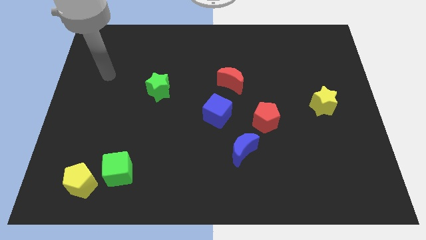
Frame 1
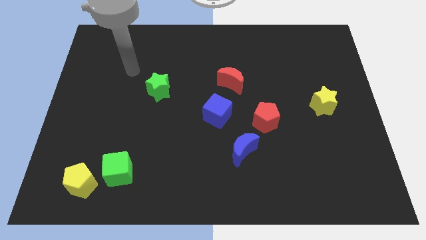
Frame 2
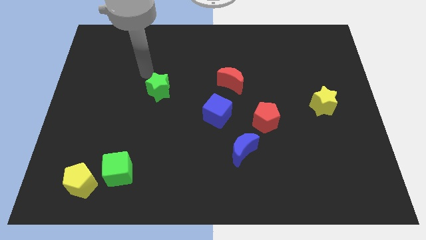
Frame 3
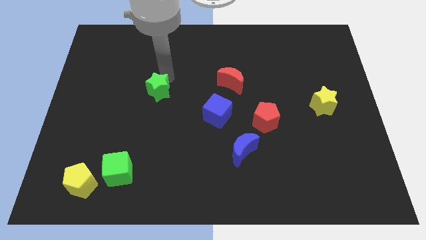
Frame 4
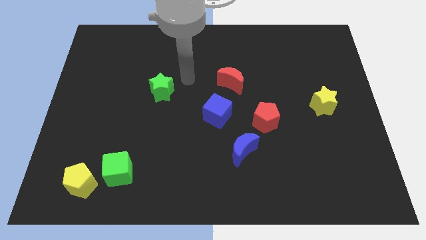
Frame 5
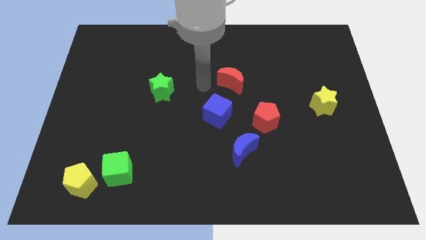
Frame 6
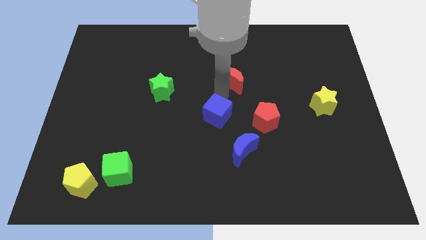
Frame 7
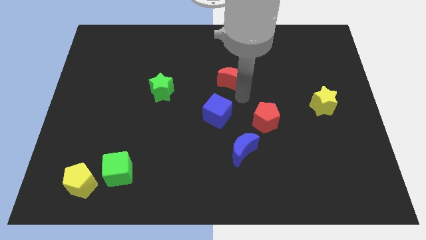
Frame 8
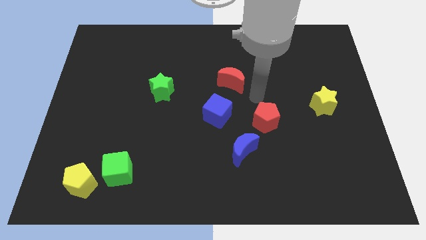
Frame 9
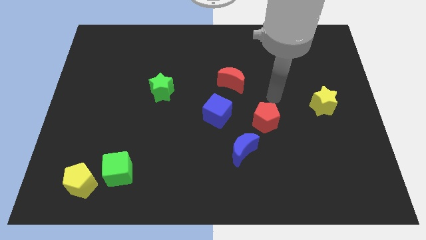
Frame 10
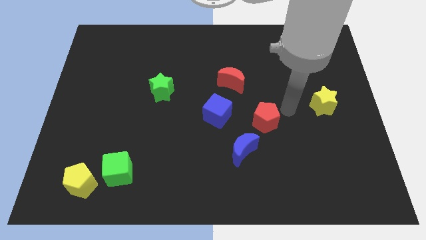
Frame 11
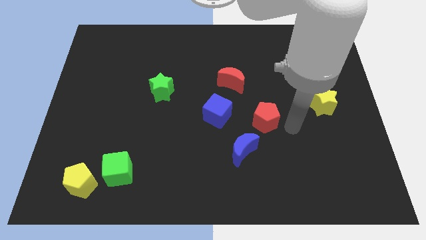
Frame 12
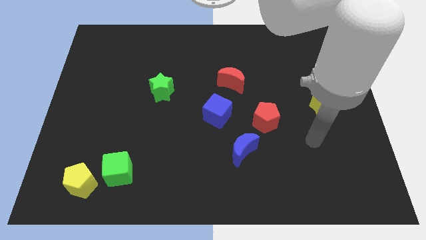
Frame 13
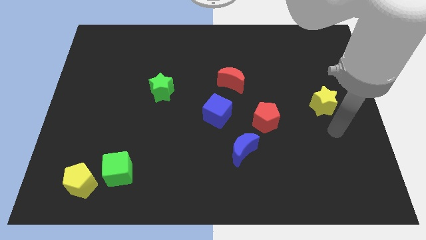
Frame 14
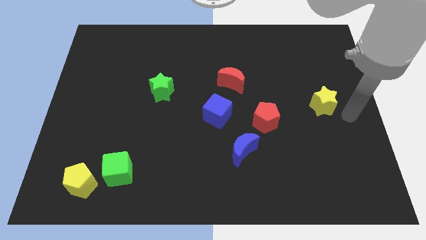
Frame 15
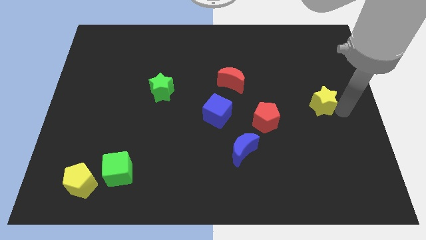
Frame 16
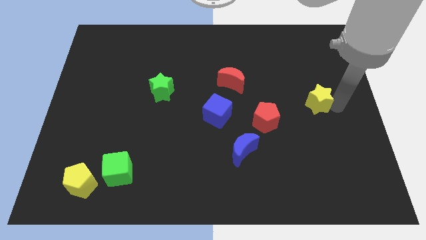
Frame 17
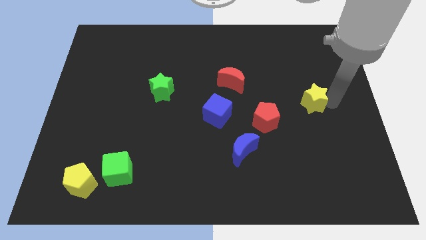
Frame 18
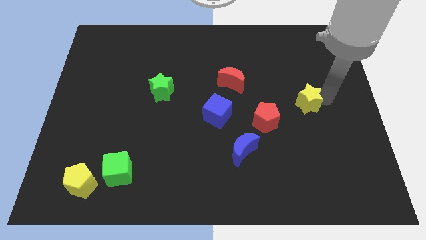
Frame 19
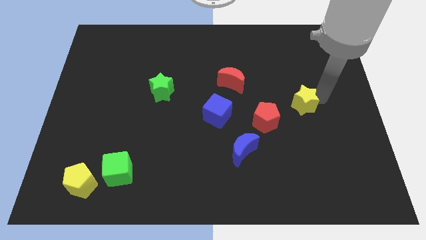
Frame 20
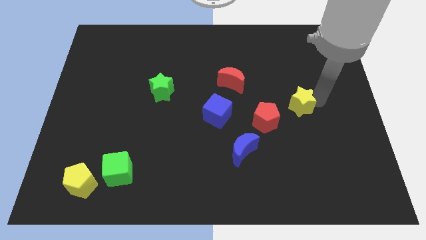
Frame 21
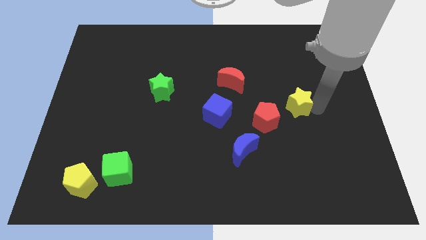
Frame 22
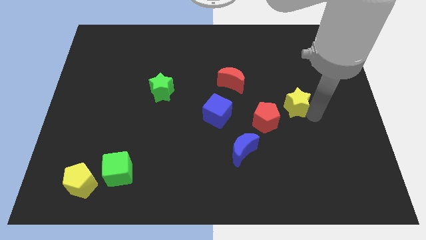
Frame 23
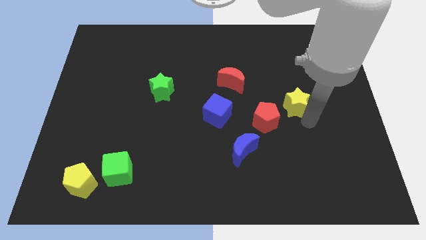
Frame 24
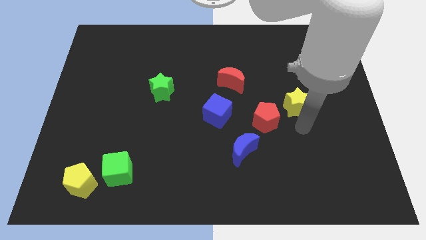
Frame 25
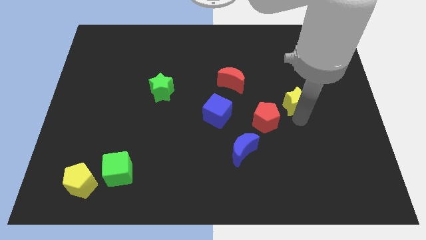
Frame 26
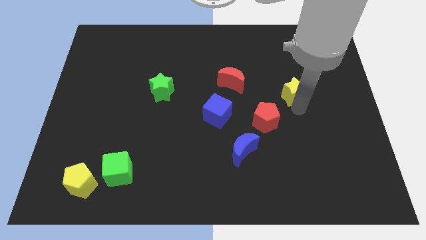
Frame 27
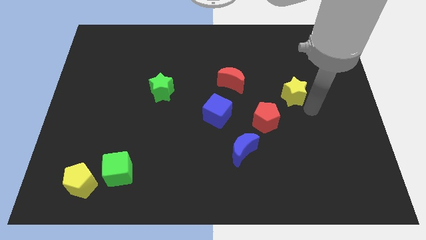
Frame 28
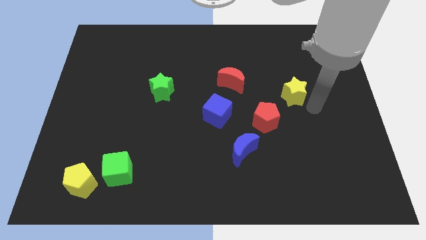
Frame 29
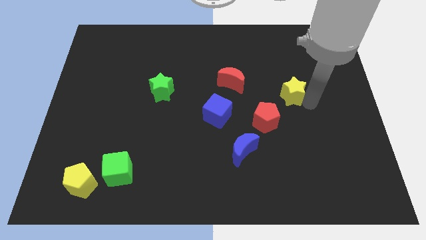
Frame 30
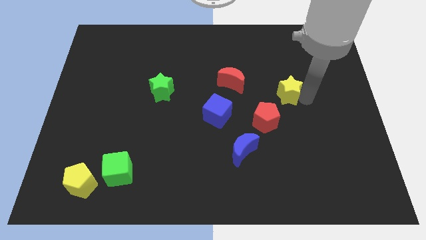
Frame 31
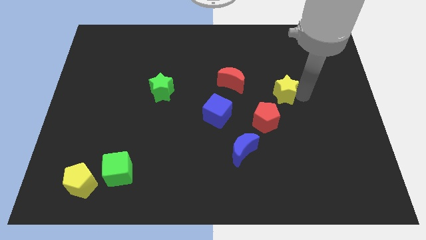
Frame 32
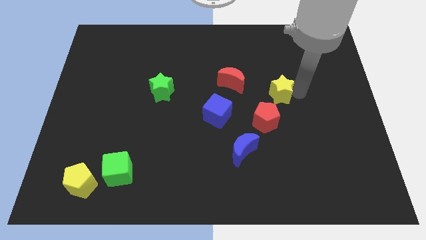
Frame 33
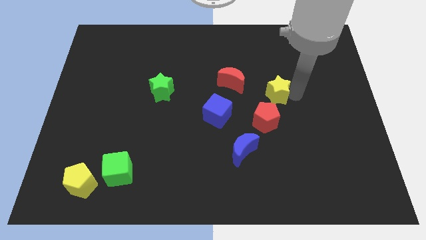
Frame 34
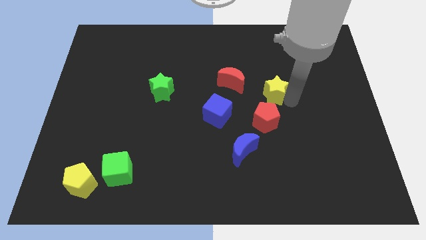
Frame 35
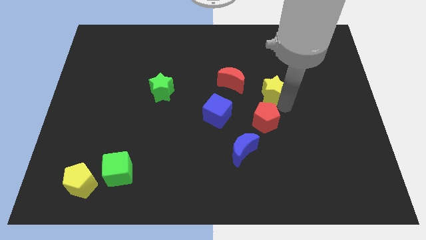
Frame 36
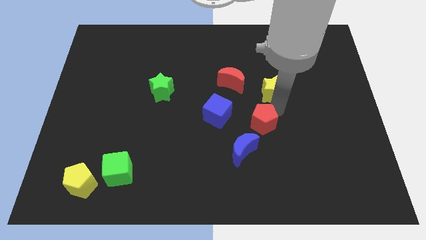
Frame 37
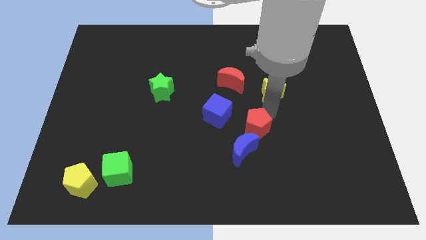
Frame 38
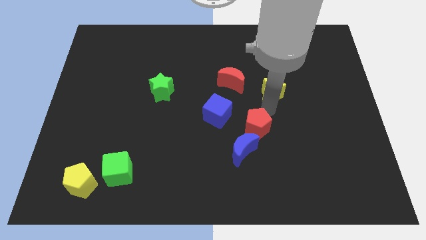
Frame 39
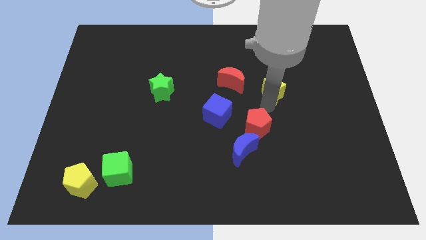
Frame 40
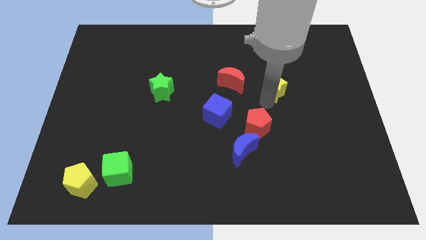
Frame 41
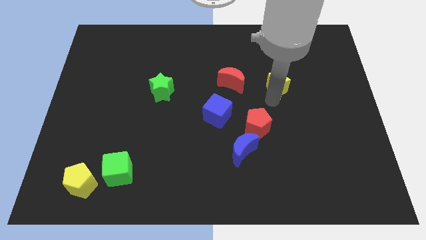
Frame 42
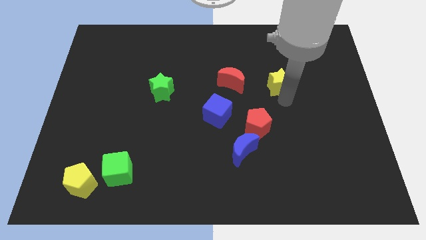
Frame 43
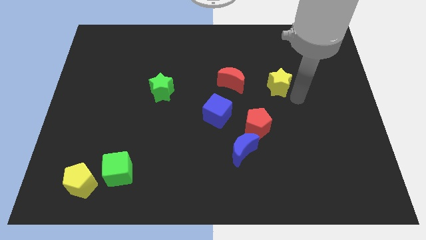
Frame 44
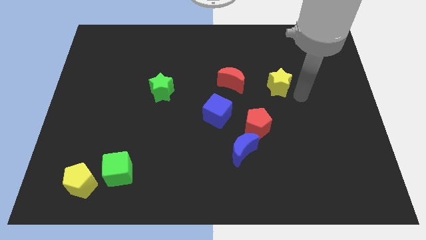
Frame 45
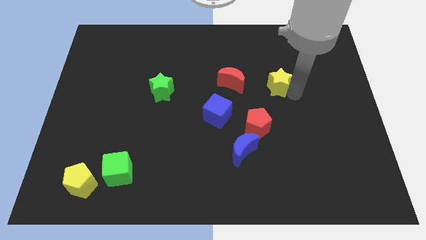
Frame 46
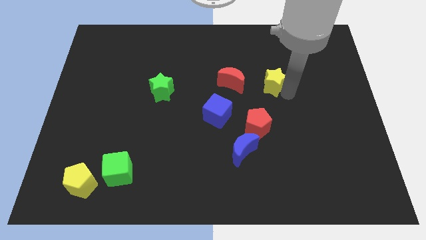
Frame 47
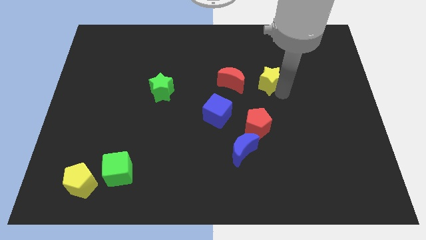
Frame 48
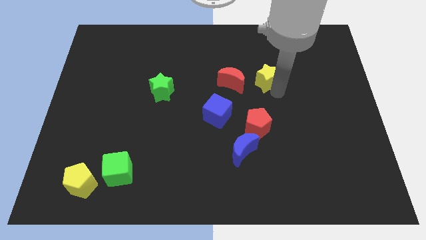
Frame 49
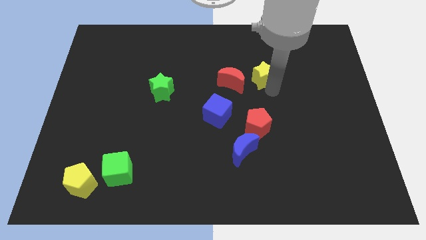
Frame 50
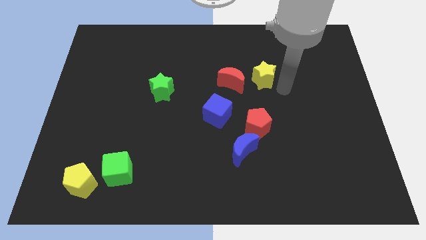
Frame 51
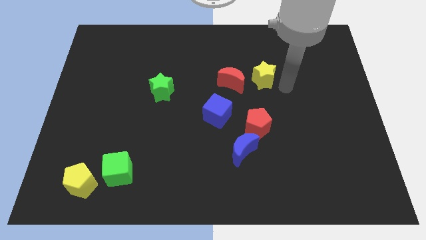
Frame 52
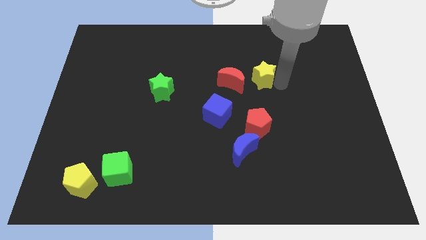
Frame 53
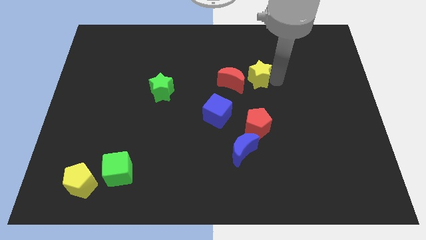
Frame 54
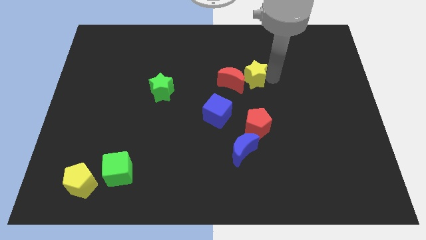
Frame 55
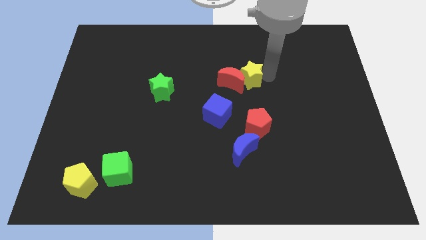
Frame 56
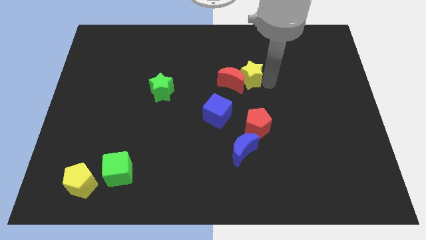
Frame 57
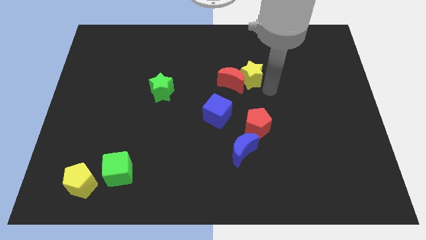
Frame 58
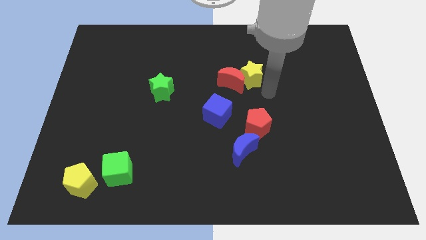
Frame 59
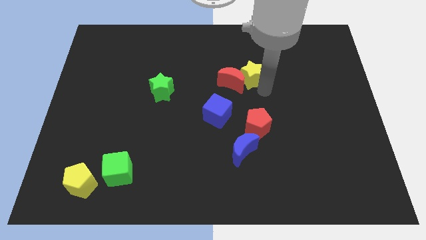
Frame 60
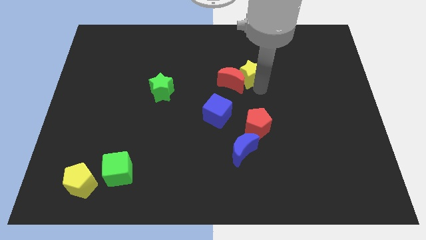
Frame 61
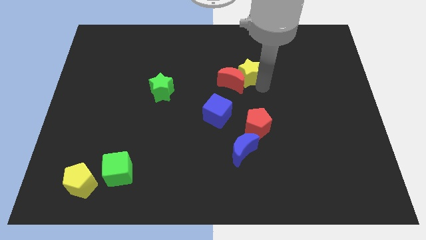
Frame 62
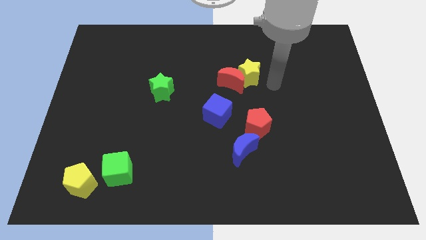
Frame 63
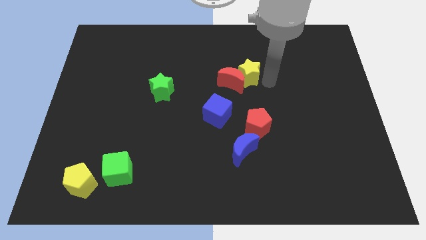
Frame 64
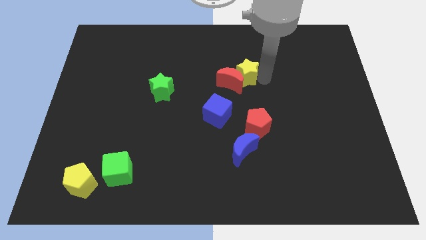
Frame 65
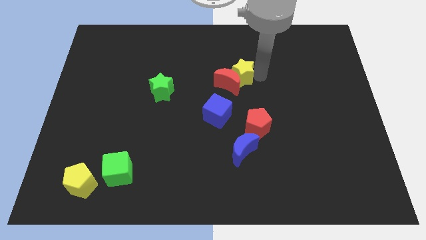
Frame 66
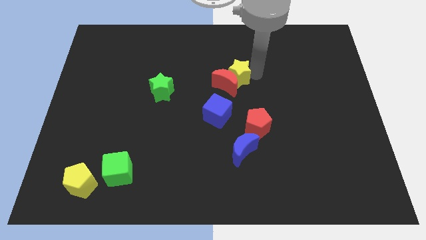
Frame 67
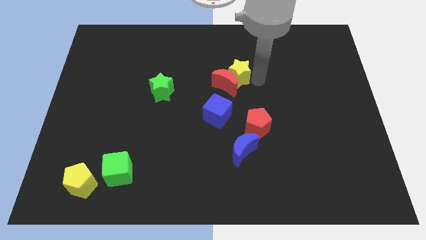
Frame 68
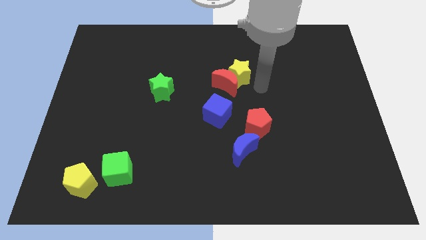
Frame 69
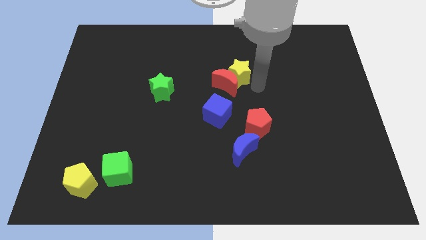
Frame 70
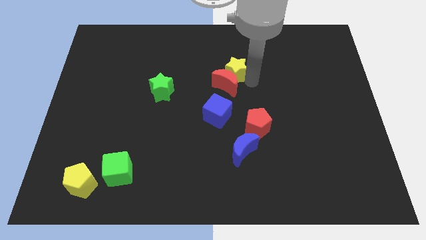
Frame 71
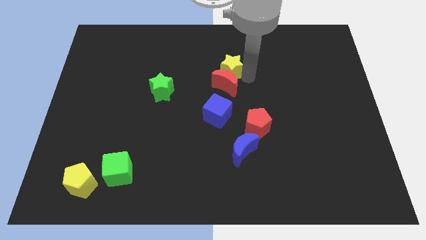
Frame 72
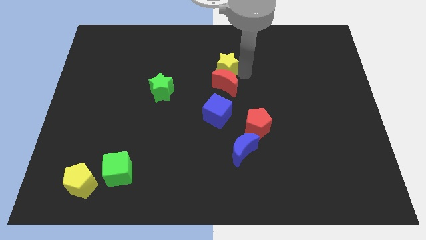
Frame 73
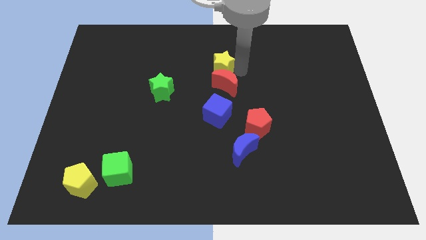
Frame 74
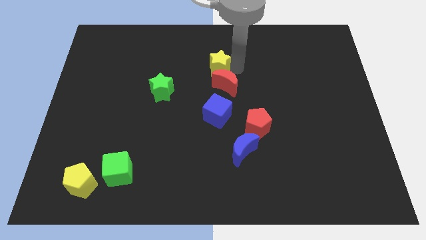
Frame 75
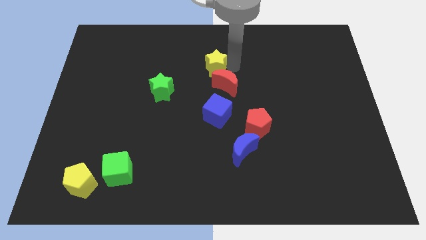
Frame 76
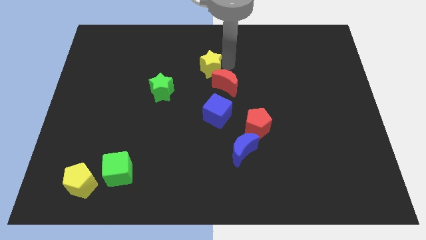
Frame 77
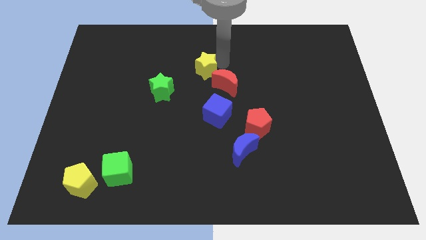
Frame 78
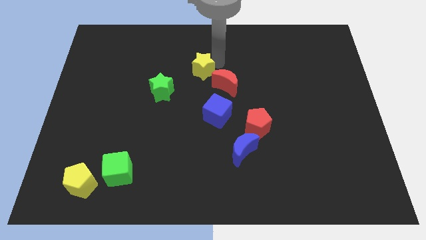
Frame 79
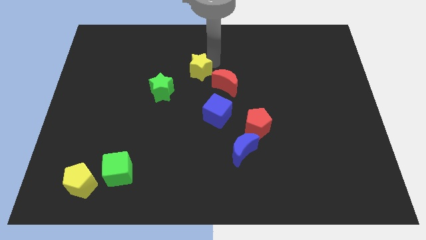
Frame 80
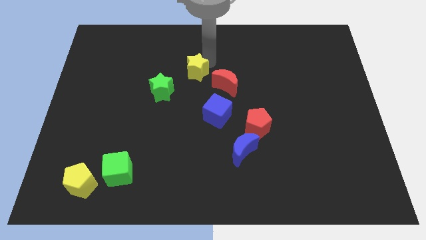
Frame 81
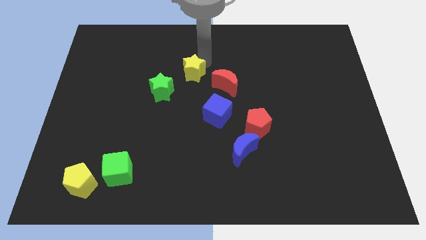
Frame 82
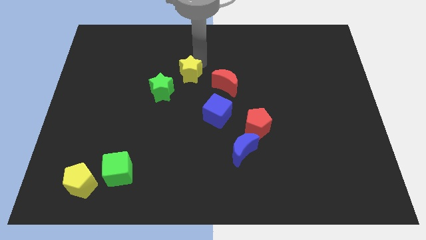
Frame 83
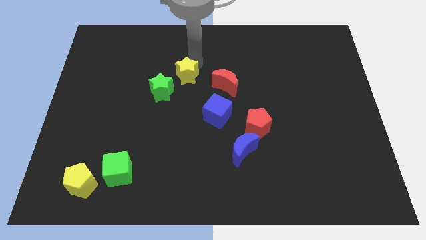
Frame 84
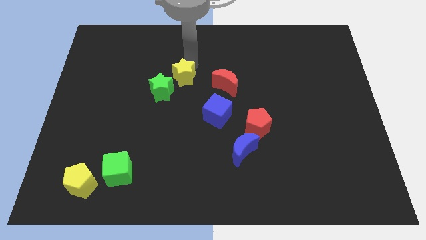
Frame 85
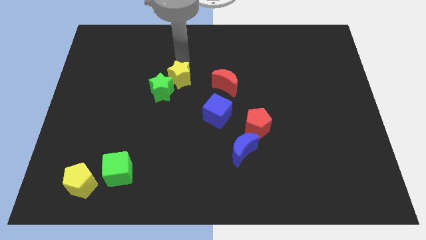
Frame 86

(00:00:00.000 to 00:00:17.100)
push the yellow star towards the green star
